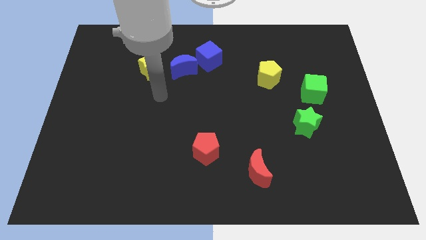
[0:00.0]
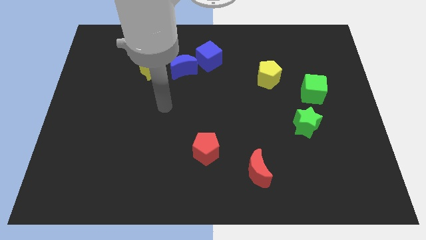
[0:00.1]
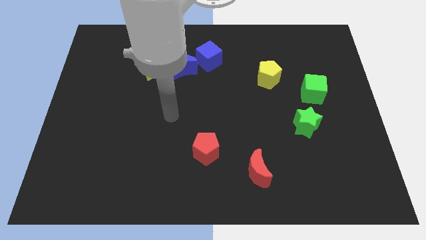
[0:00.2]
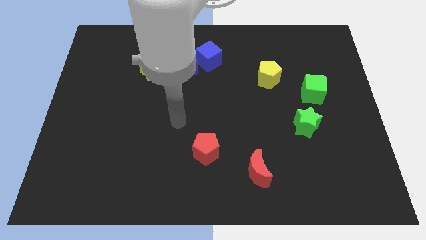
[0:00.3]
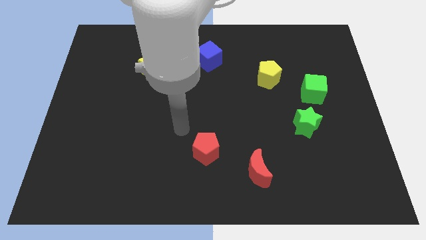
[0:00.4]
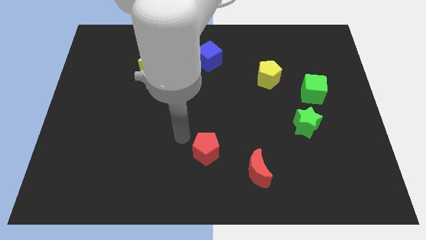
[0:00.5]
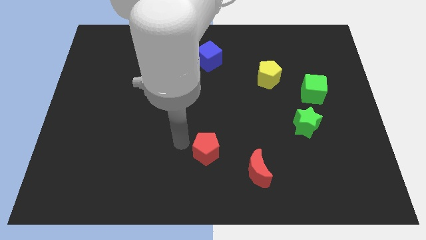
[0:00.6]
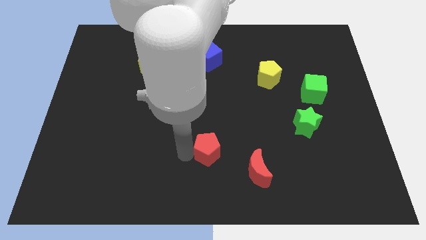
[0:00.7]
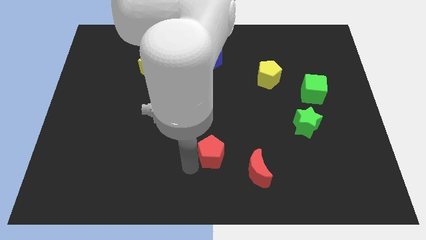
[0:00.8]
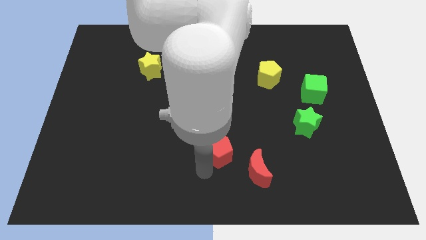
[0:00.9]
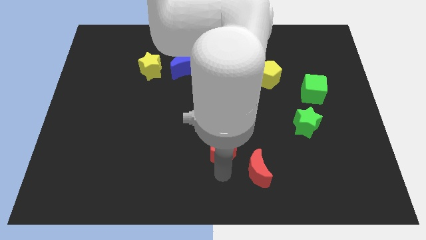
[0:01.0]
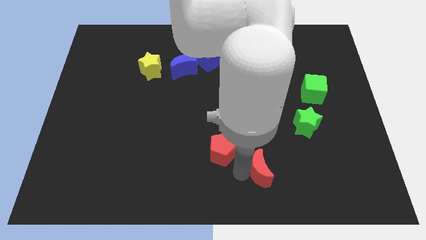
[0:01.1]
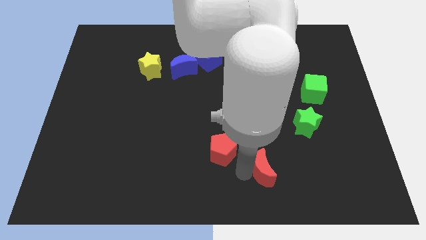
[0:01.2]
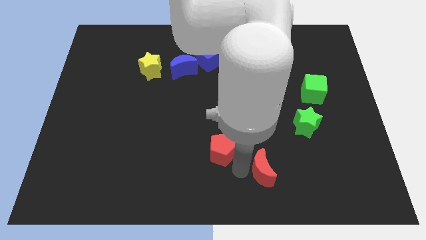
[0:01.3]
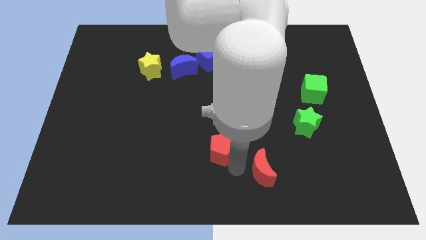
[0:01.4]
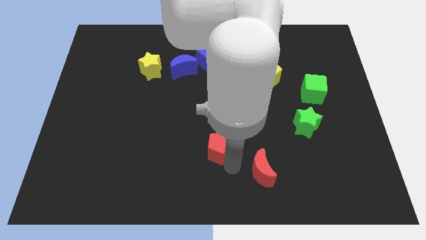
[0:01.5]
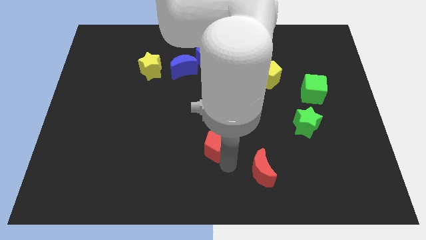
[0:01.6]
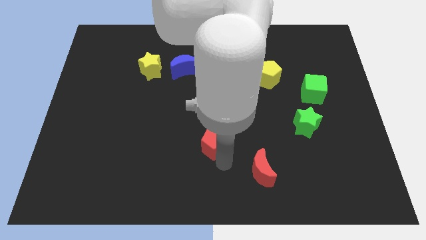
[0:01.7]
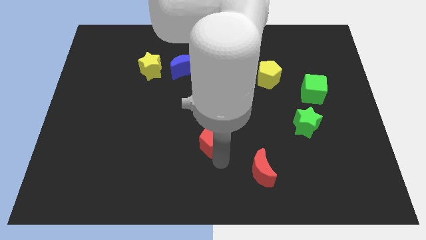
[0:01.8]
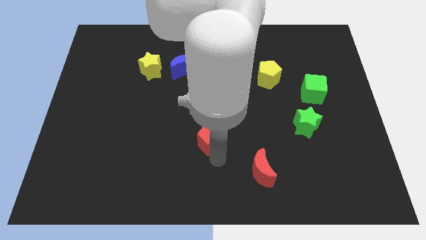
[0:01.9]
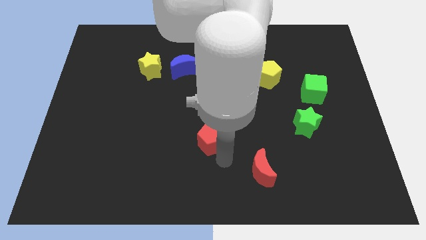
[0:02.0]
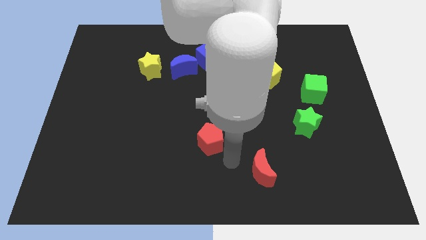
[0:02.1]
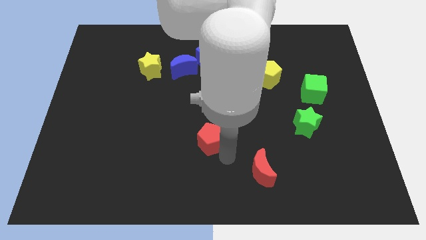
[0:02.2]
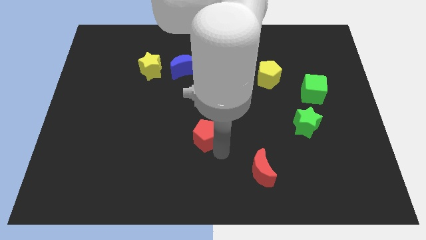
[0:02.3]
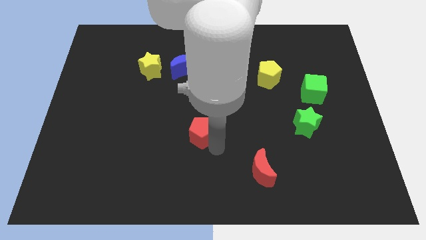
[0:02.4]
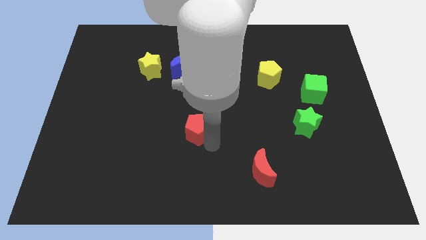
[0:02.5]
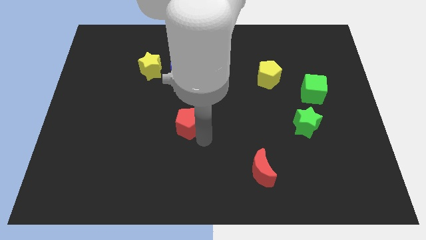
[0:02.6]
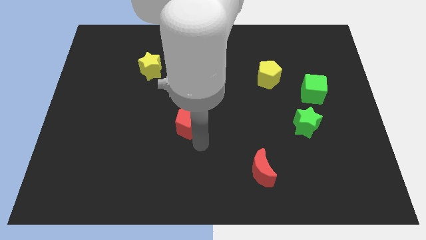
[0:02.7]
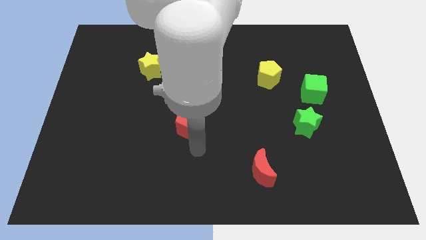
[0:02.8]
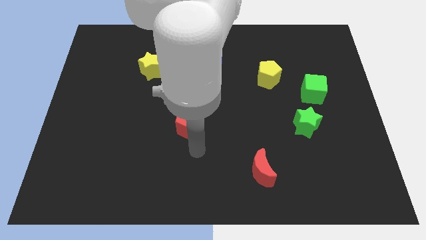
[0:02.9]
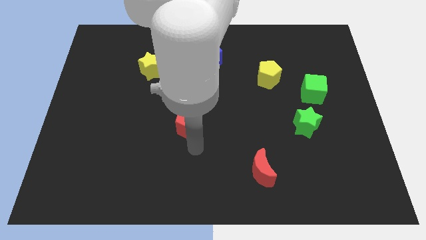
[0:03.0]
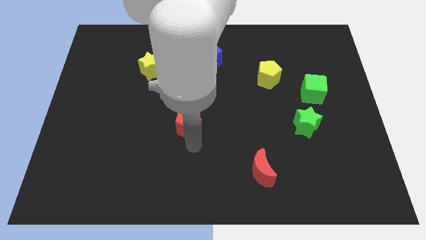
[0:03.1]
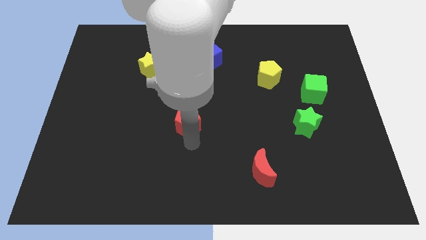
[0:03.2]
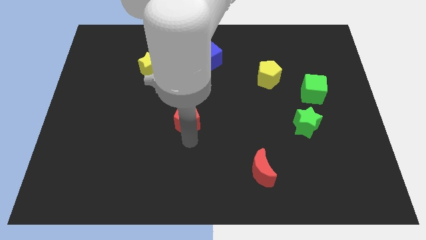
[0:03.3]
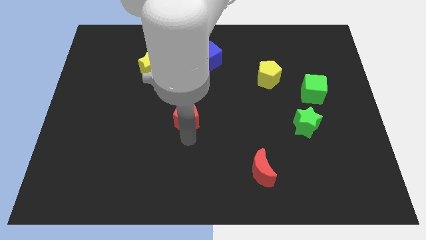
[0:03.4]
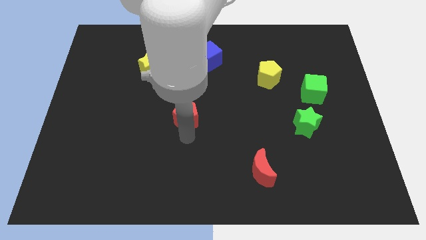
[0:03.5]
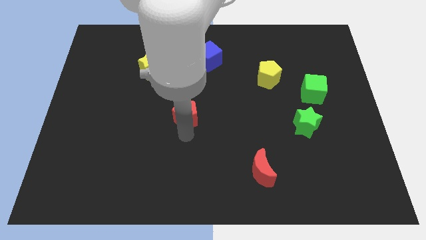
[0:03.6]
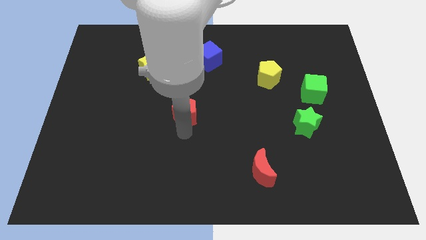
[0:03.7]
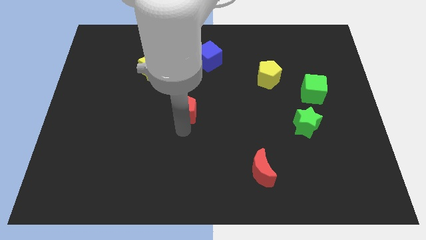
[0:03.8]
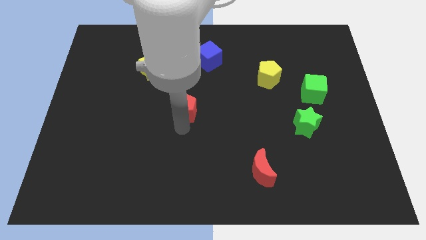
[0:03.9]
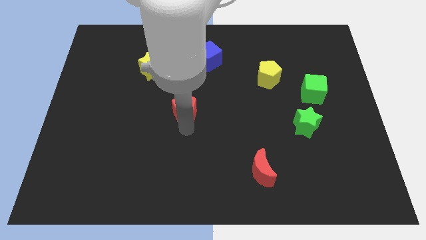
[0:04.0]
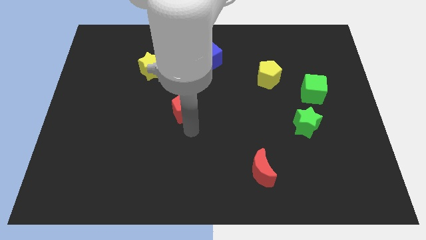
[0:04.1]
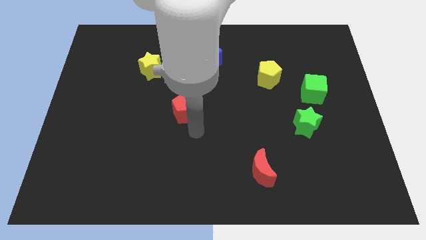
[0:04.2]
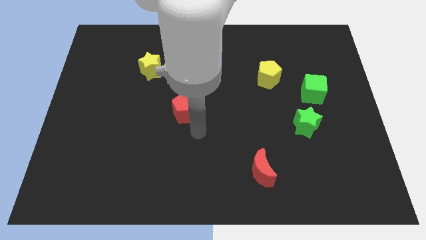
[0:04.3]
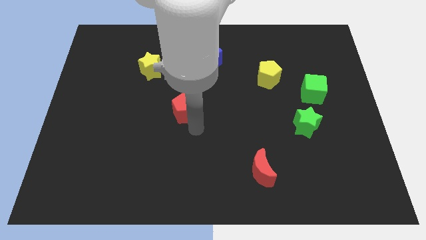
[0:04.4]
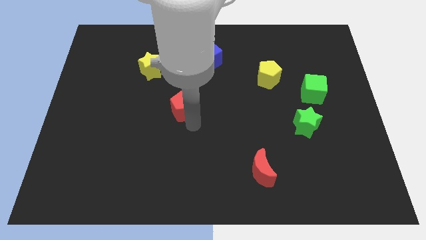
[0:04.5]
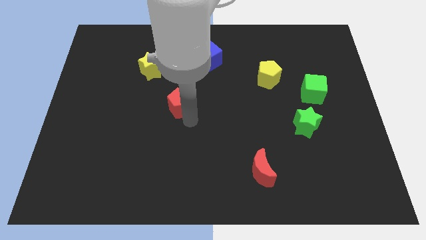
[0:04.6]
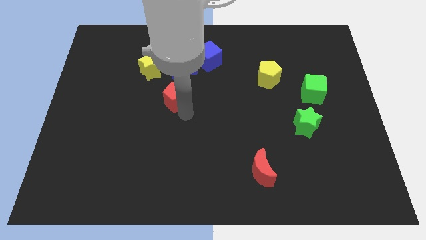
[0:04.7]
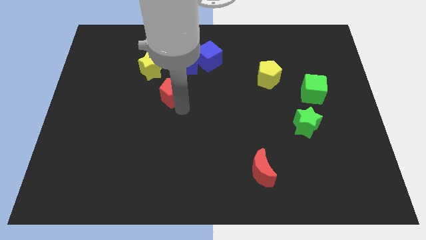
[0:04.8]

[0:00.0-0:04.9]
move the red pentagon to the bottom left of the blue moon

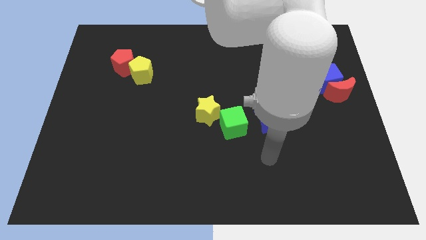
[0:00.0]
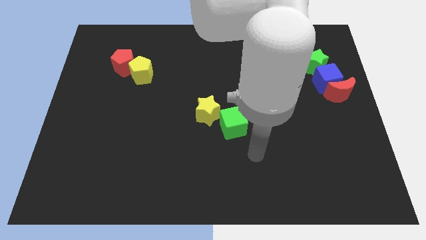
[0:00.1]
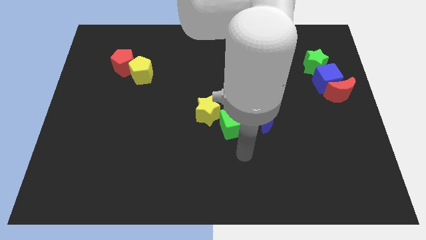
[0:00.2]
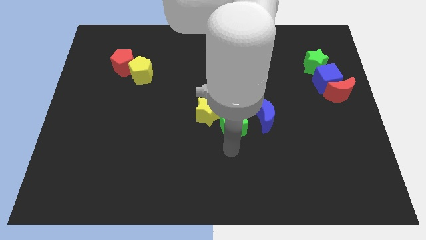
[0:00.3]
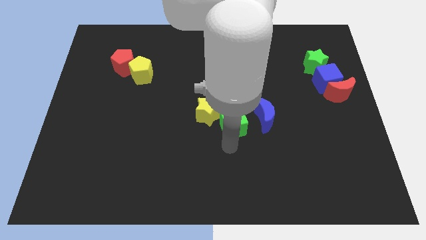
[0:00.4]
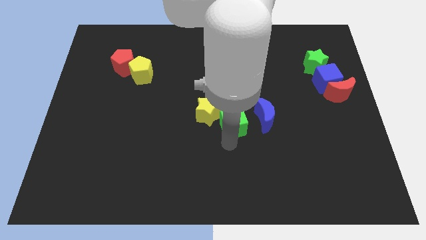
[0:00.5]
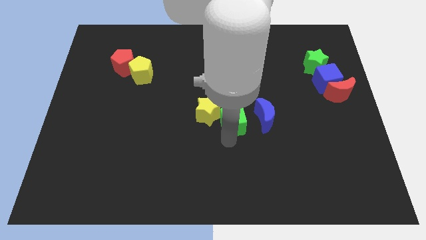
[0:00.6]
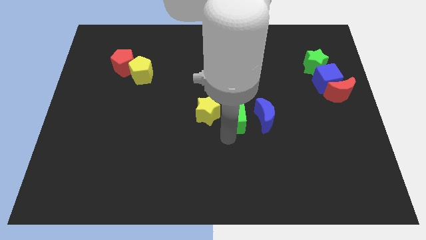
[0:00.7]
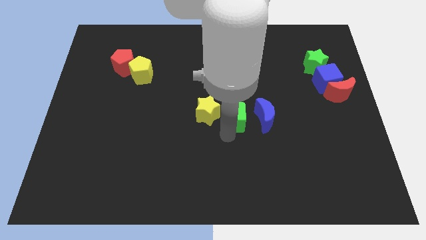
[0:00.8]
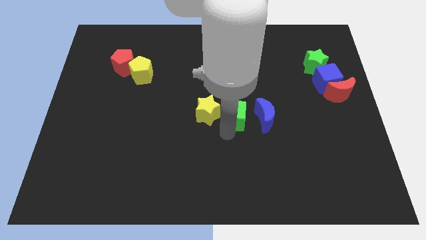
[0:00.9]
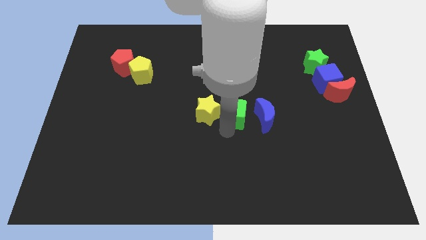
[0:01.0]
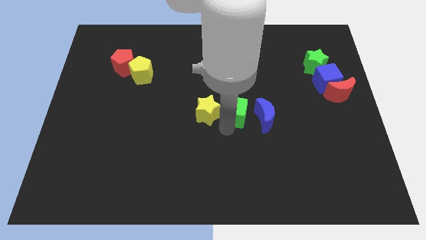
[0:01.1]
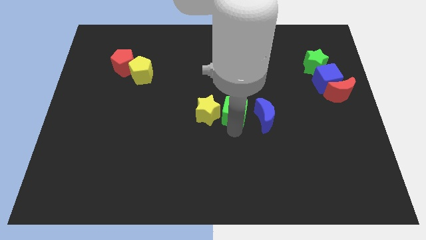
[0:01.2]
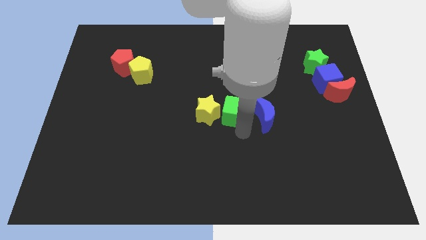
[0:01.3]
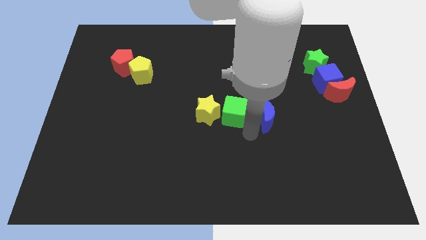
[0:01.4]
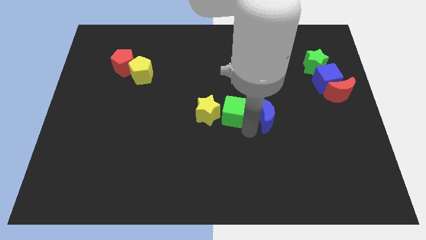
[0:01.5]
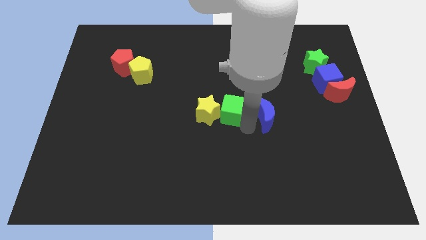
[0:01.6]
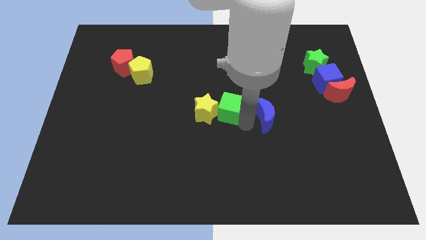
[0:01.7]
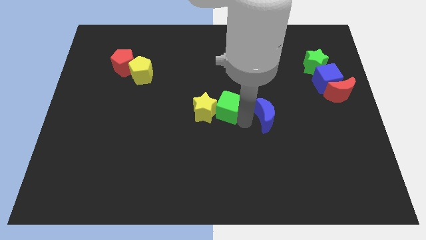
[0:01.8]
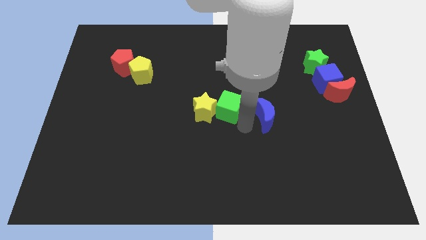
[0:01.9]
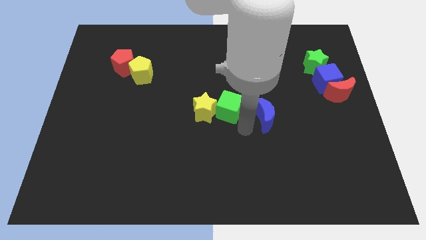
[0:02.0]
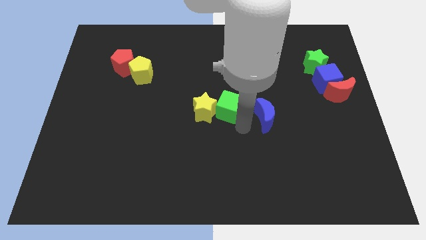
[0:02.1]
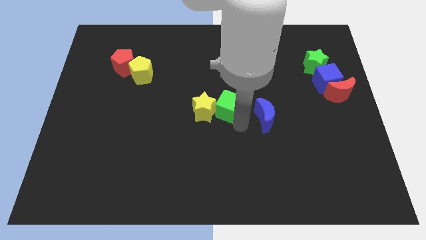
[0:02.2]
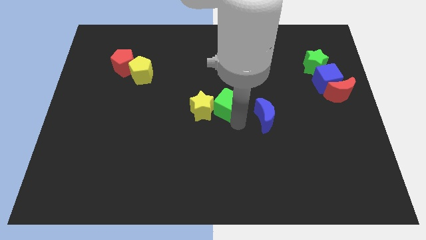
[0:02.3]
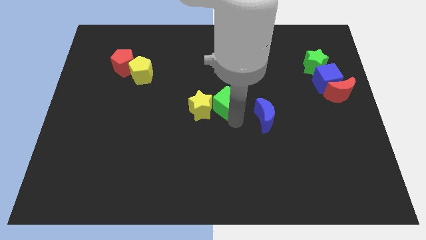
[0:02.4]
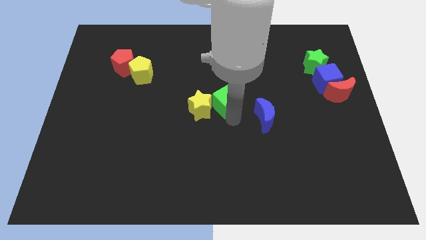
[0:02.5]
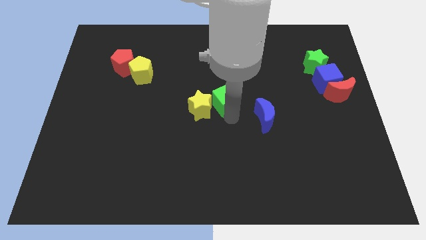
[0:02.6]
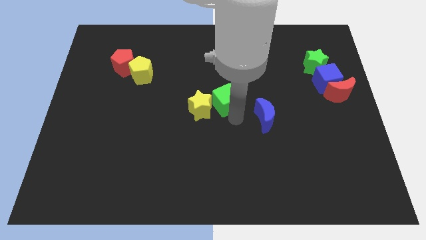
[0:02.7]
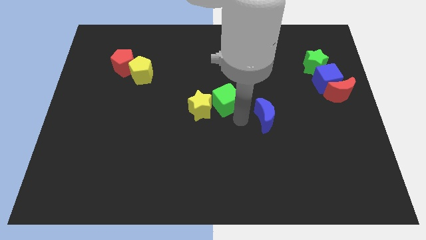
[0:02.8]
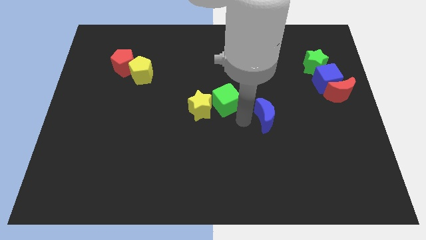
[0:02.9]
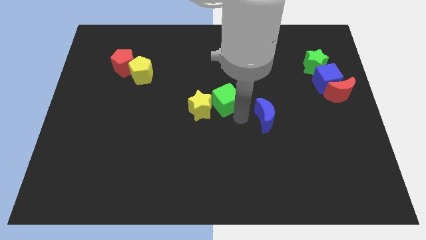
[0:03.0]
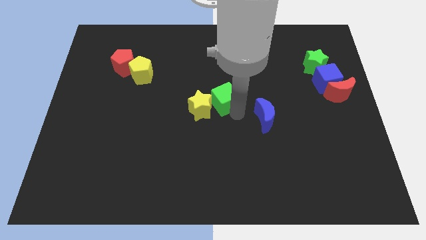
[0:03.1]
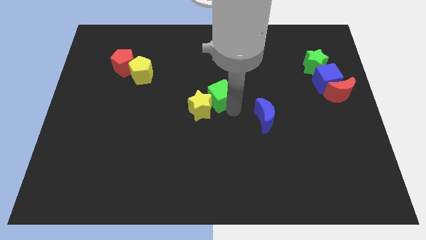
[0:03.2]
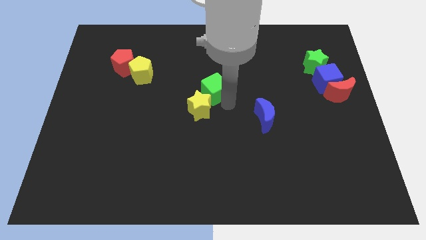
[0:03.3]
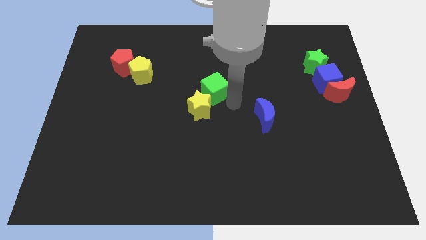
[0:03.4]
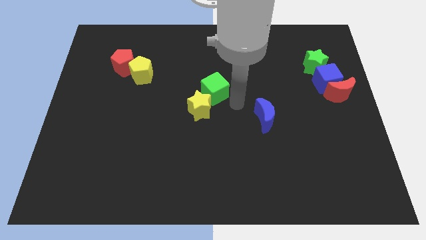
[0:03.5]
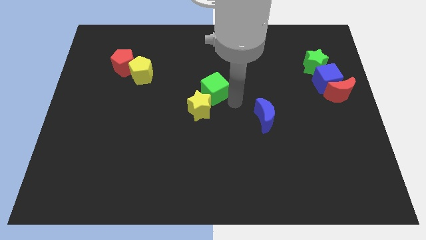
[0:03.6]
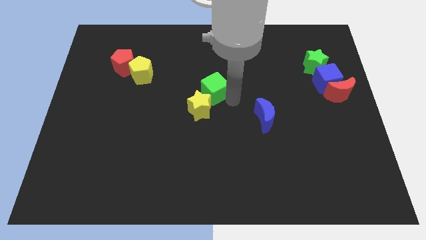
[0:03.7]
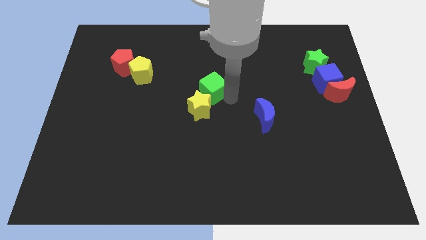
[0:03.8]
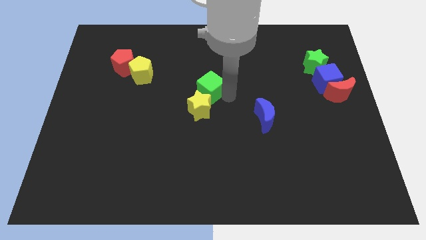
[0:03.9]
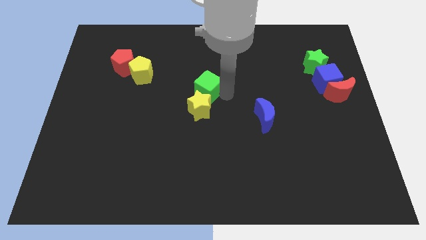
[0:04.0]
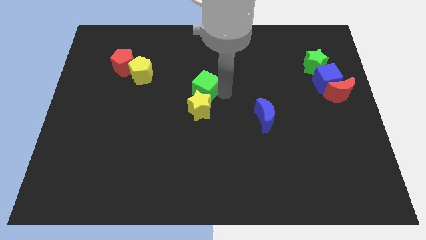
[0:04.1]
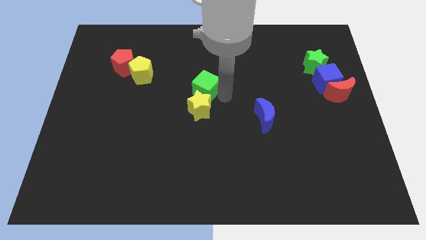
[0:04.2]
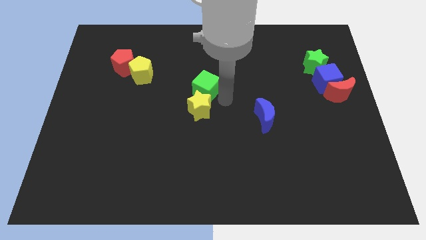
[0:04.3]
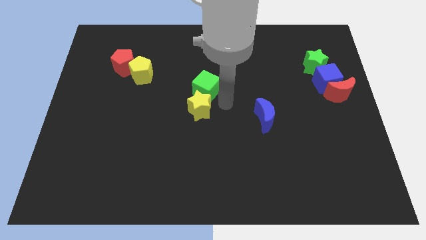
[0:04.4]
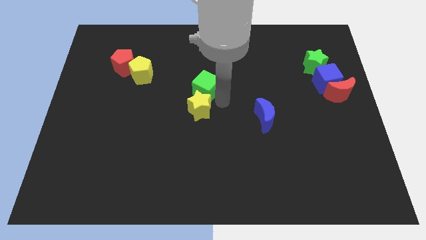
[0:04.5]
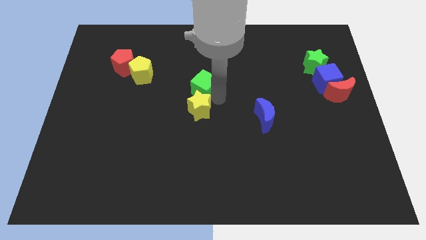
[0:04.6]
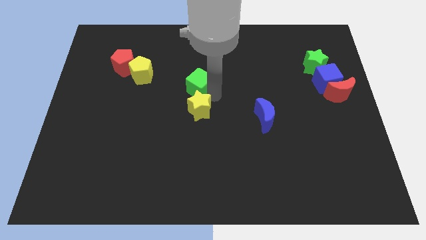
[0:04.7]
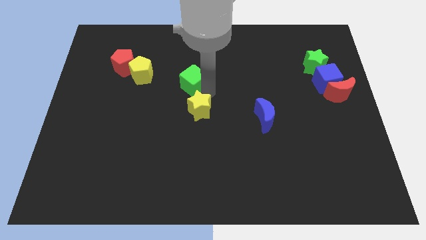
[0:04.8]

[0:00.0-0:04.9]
put the green cube to the right of the yellow pentagon
